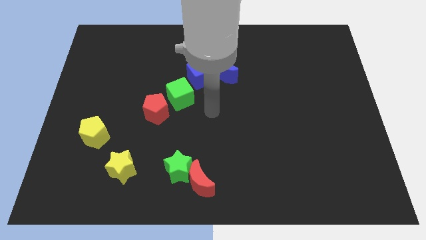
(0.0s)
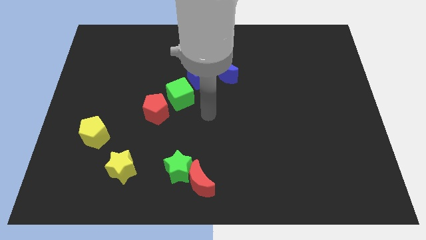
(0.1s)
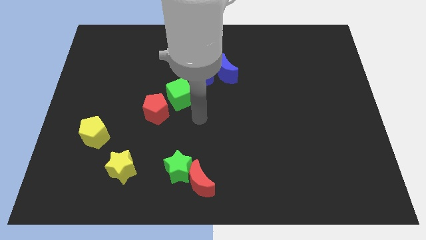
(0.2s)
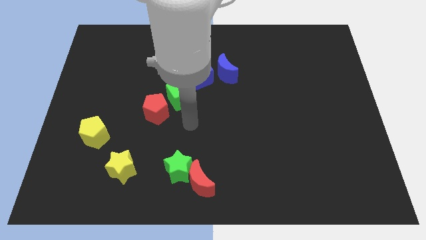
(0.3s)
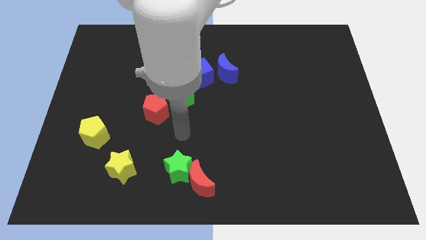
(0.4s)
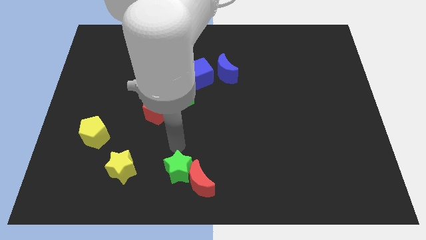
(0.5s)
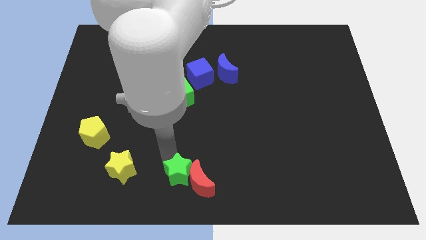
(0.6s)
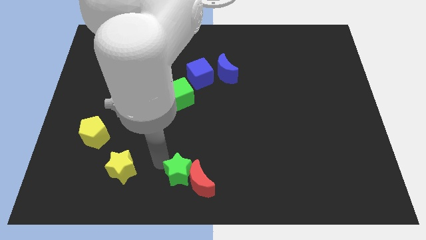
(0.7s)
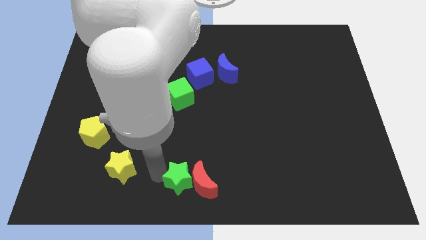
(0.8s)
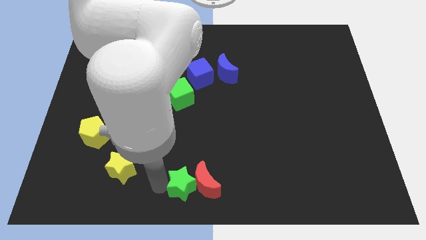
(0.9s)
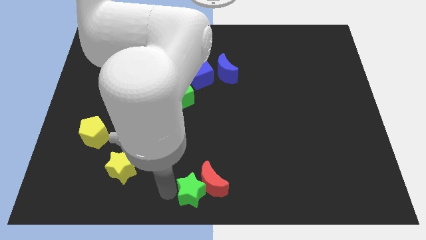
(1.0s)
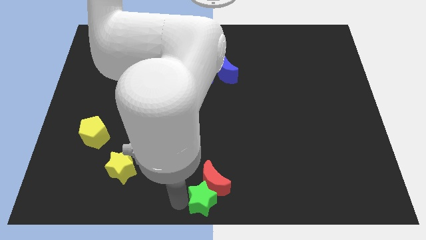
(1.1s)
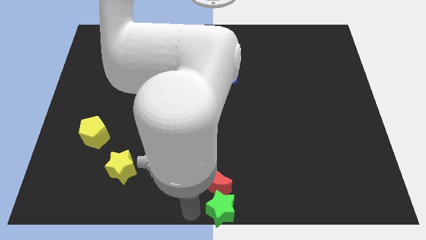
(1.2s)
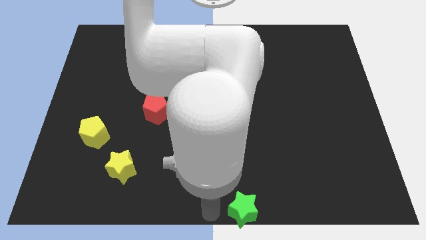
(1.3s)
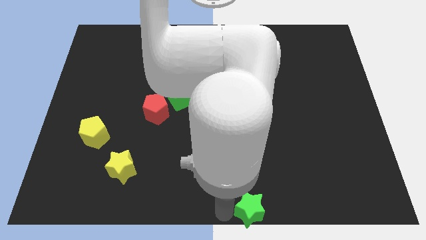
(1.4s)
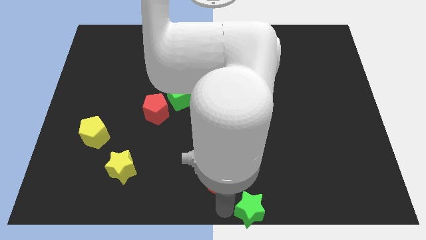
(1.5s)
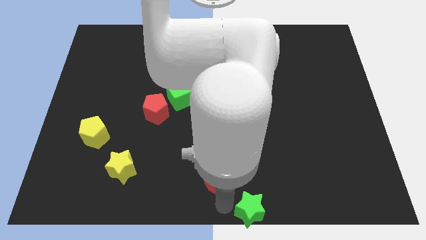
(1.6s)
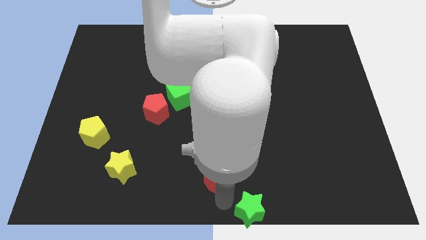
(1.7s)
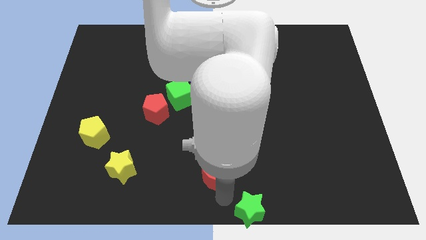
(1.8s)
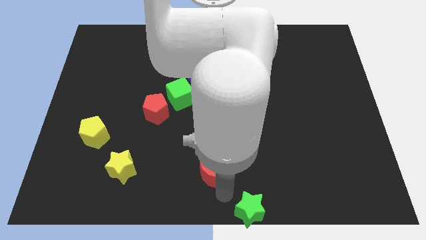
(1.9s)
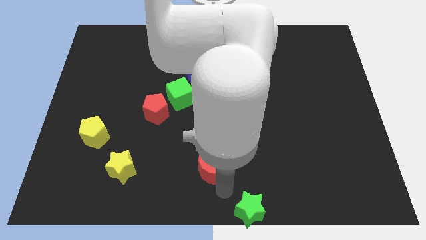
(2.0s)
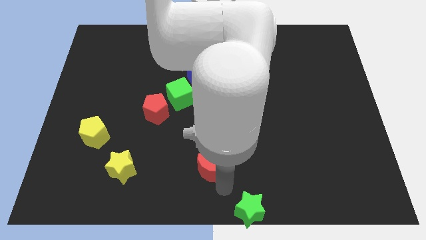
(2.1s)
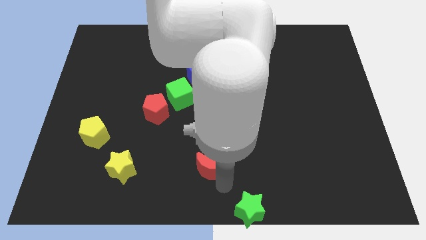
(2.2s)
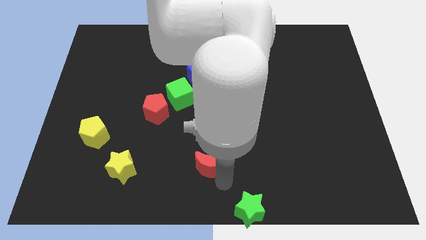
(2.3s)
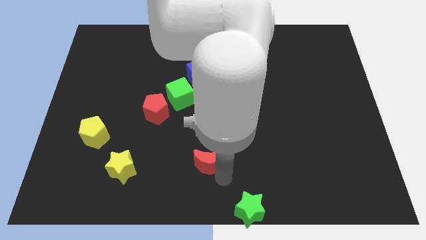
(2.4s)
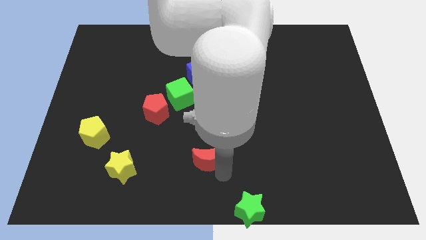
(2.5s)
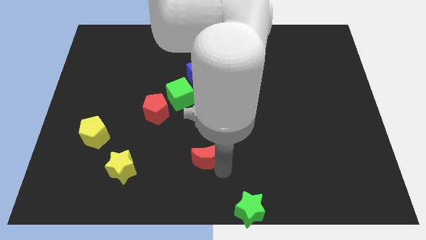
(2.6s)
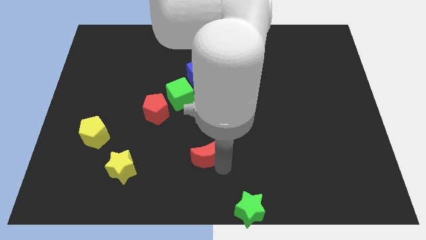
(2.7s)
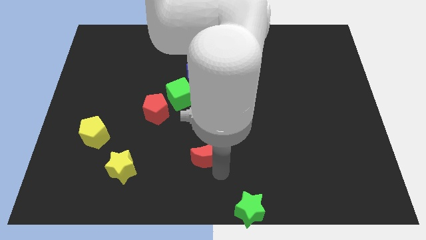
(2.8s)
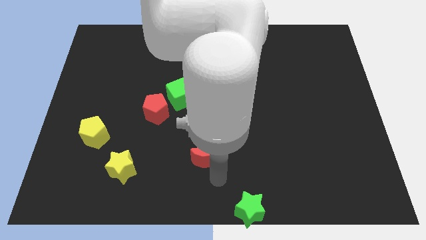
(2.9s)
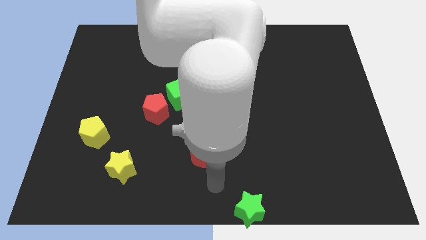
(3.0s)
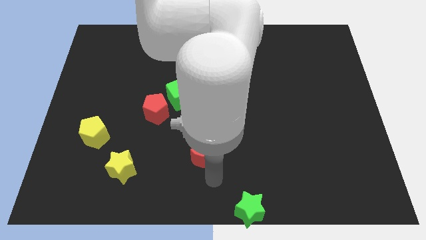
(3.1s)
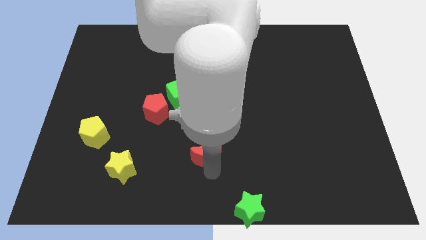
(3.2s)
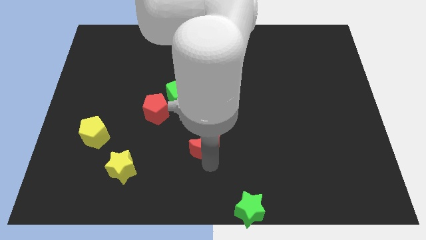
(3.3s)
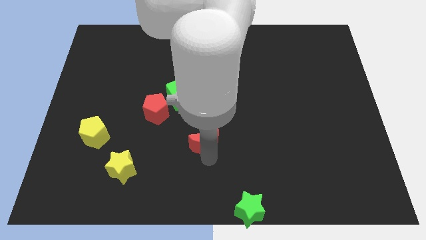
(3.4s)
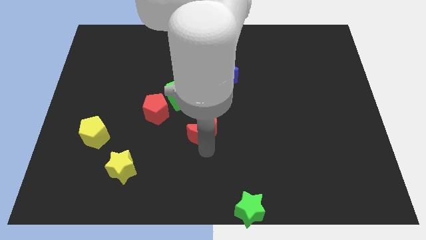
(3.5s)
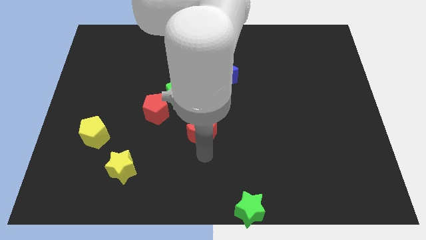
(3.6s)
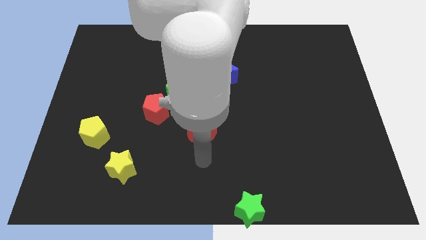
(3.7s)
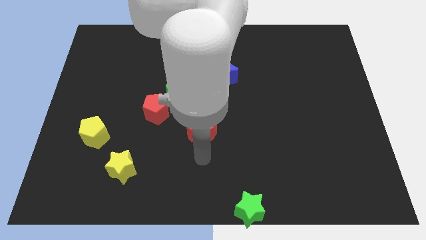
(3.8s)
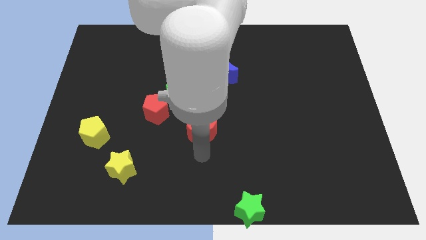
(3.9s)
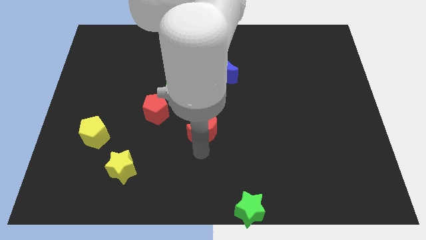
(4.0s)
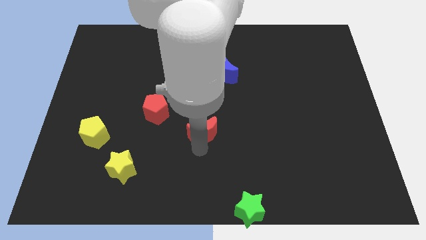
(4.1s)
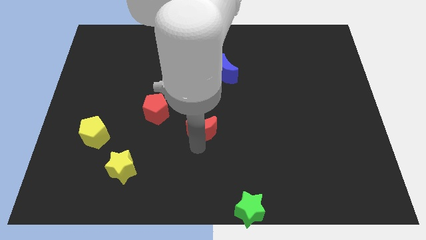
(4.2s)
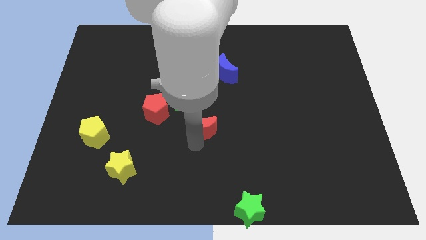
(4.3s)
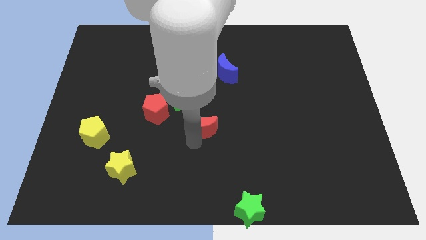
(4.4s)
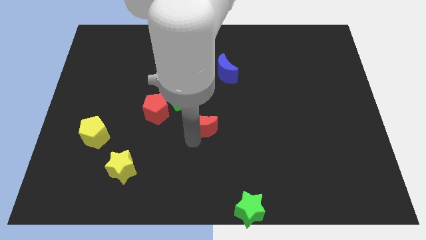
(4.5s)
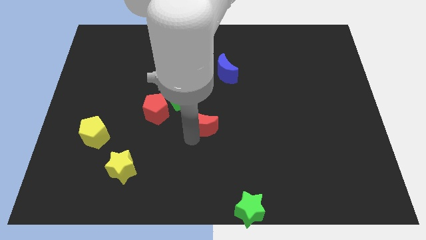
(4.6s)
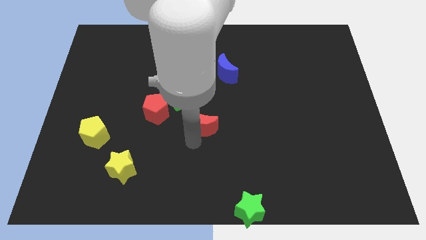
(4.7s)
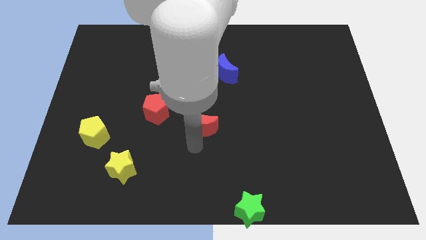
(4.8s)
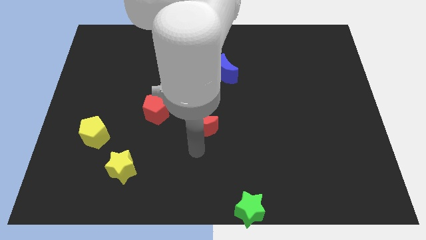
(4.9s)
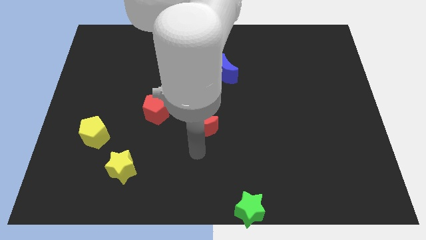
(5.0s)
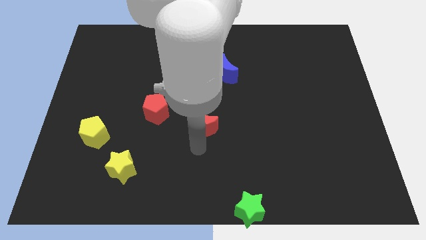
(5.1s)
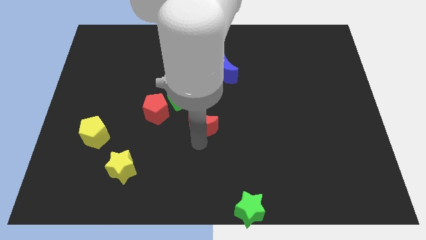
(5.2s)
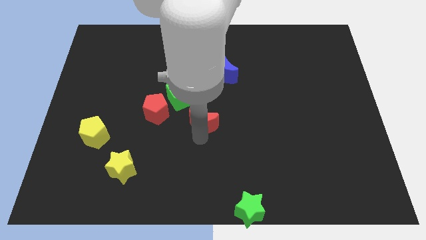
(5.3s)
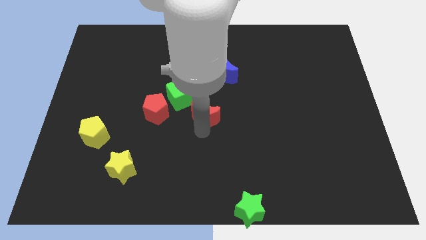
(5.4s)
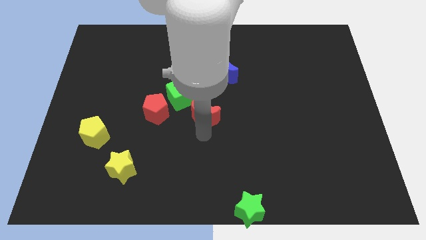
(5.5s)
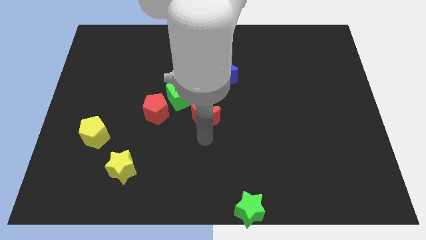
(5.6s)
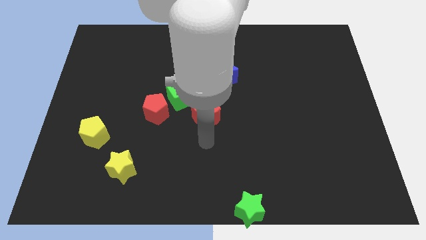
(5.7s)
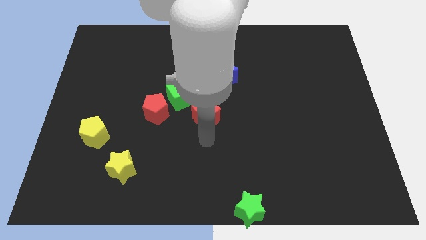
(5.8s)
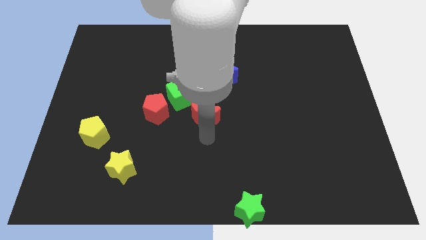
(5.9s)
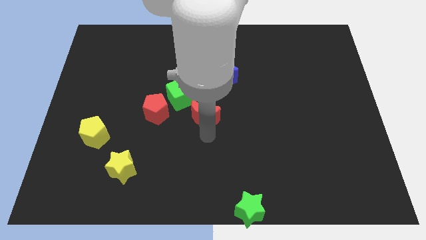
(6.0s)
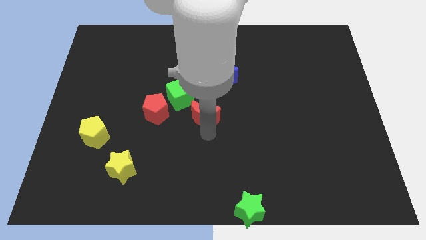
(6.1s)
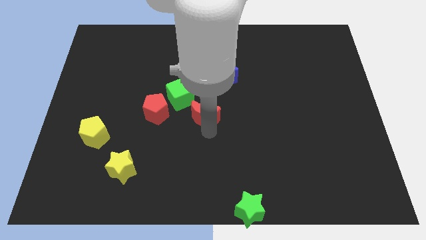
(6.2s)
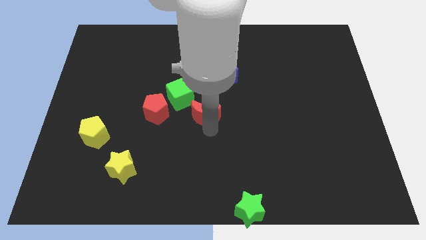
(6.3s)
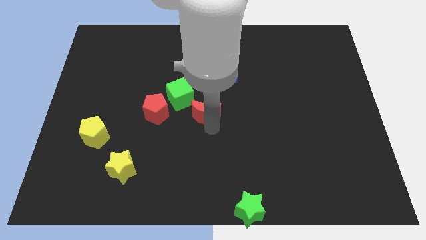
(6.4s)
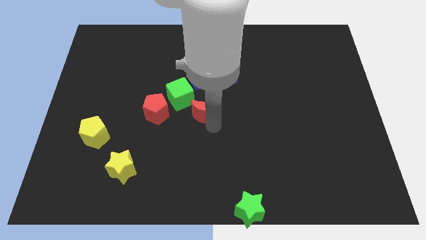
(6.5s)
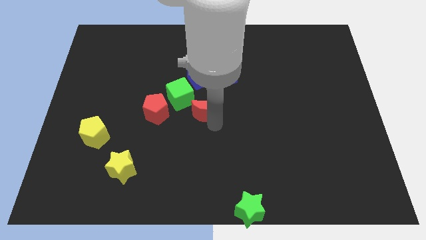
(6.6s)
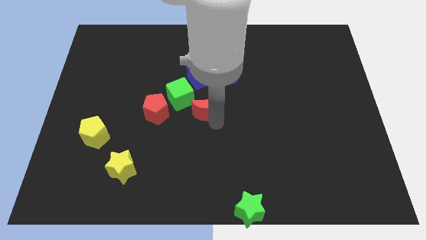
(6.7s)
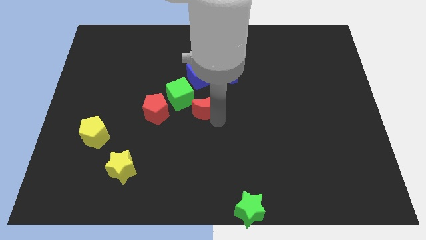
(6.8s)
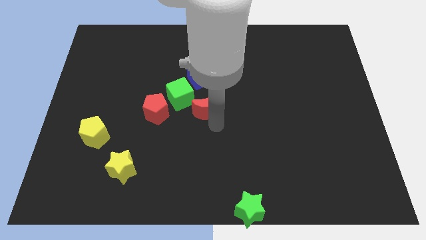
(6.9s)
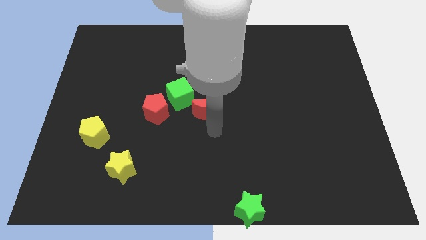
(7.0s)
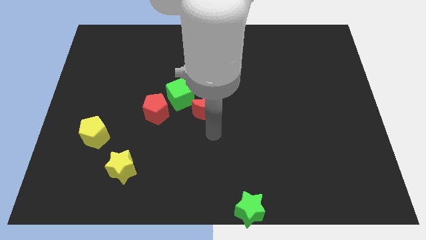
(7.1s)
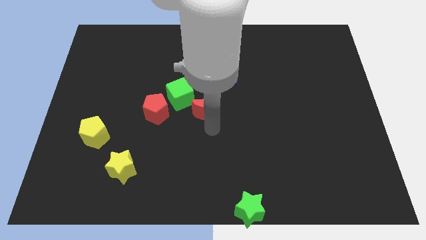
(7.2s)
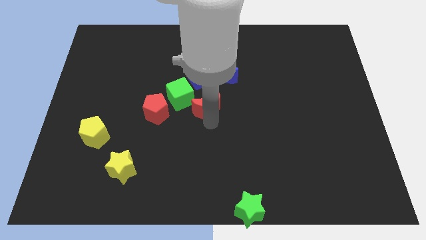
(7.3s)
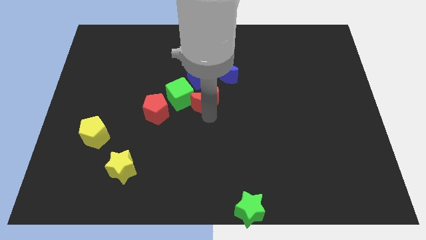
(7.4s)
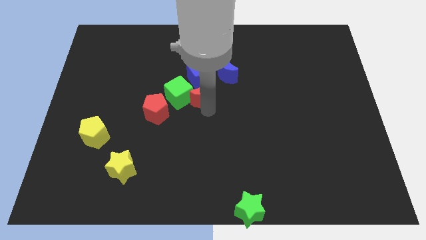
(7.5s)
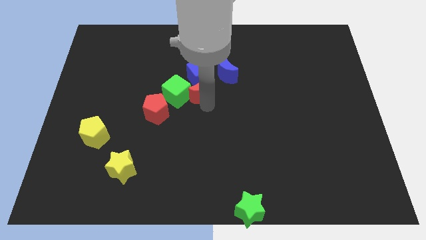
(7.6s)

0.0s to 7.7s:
slide the red moon close to the blue cube
